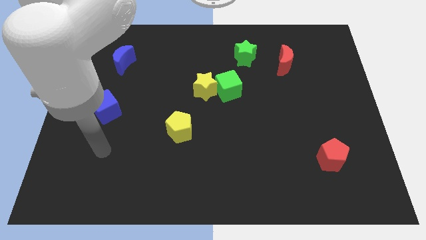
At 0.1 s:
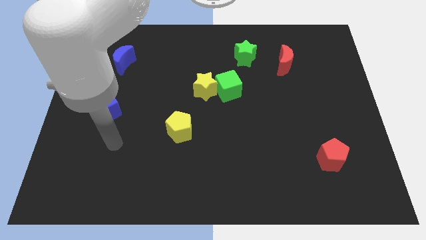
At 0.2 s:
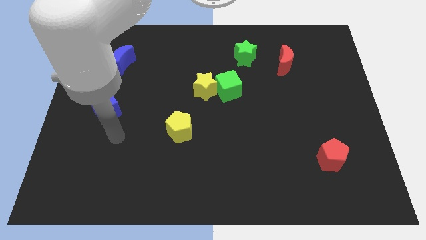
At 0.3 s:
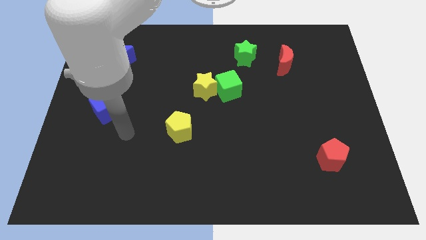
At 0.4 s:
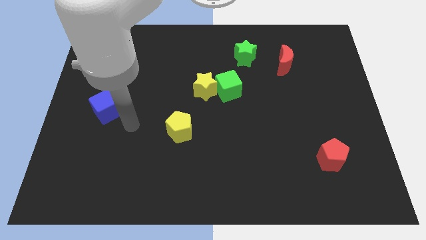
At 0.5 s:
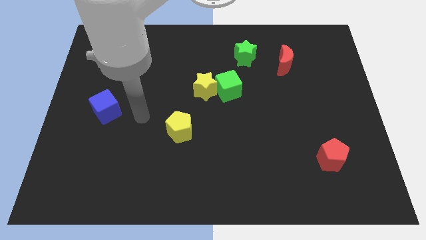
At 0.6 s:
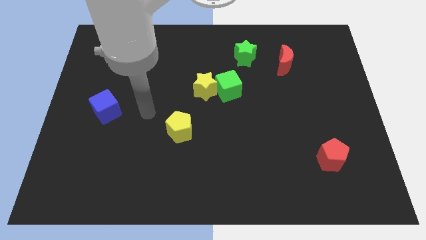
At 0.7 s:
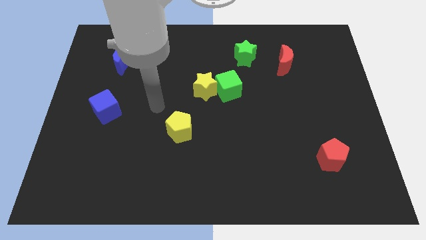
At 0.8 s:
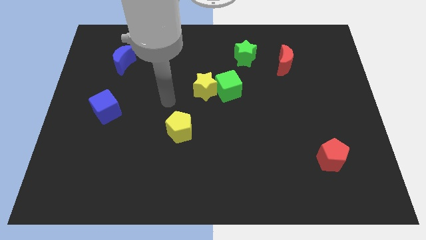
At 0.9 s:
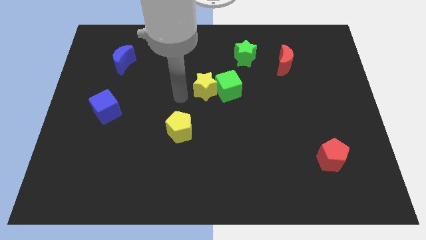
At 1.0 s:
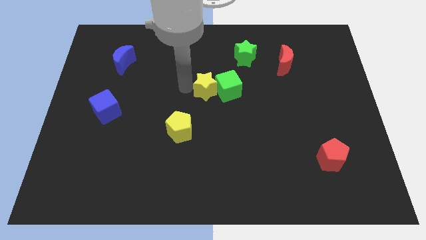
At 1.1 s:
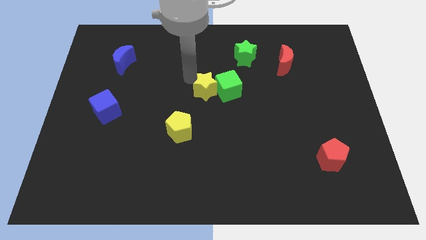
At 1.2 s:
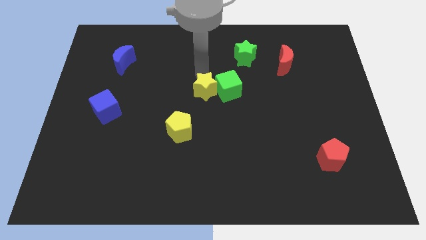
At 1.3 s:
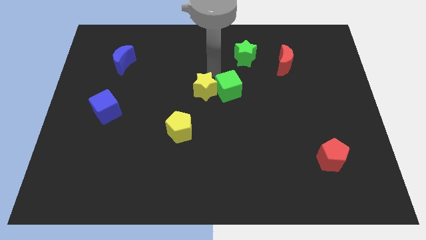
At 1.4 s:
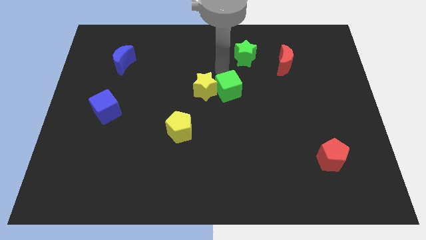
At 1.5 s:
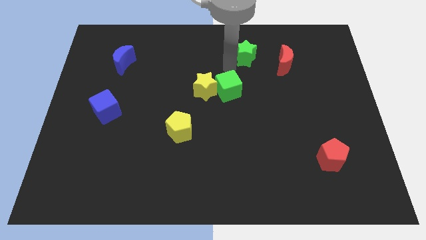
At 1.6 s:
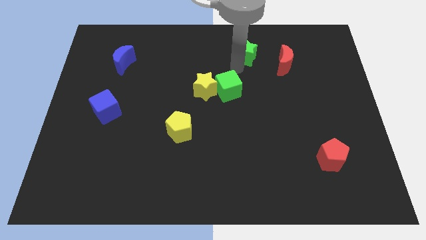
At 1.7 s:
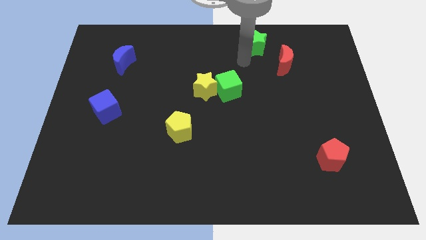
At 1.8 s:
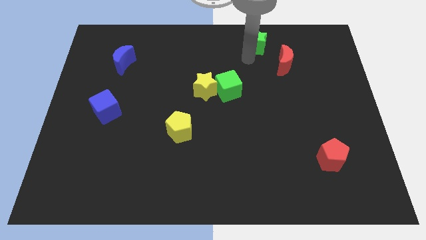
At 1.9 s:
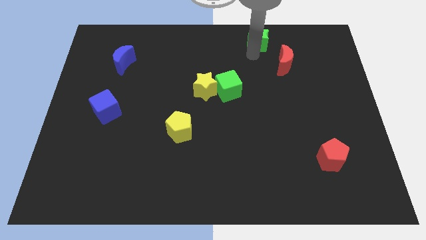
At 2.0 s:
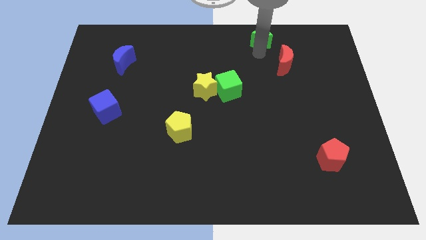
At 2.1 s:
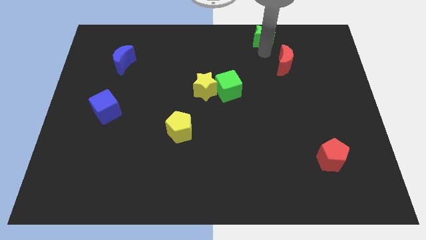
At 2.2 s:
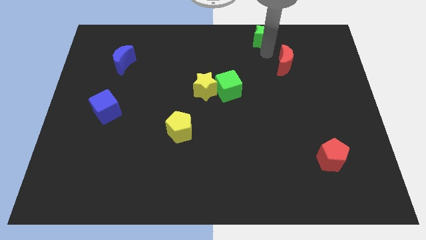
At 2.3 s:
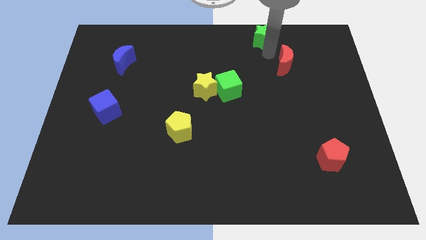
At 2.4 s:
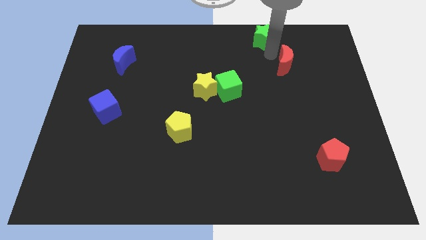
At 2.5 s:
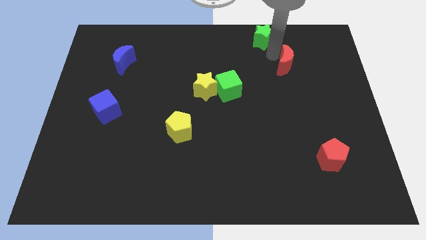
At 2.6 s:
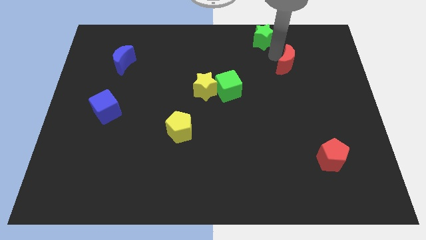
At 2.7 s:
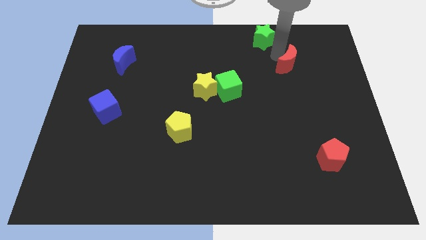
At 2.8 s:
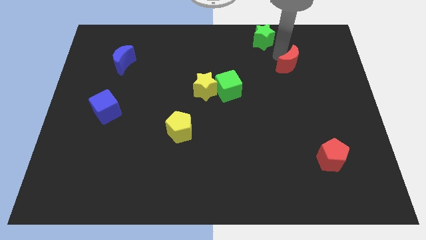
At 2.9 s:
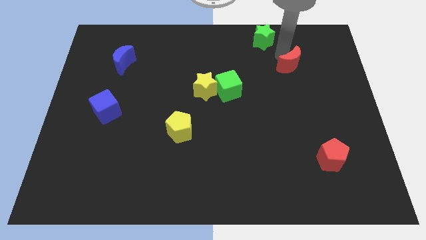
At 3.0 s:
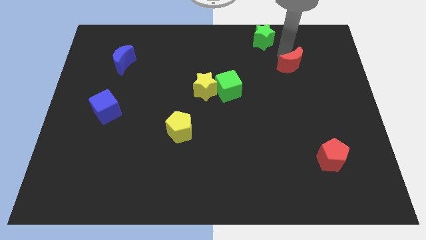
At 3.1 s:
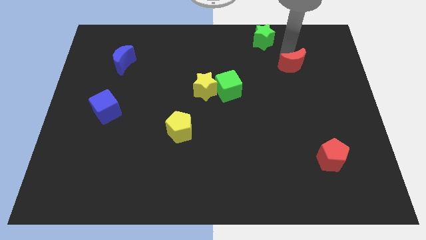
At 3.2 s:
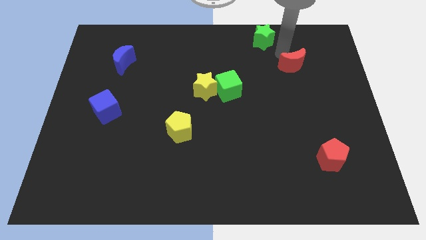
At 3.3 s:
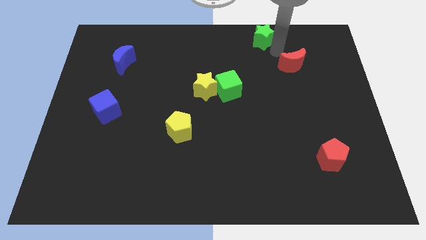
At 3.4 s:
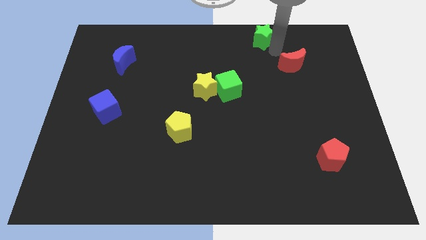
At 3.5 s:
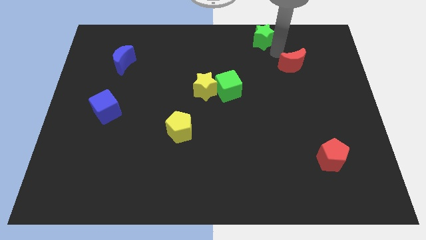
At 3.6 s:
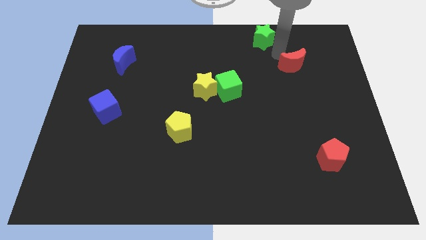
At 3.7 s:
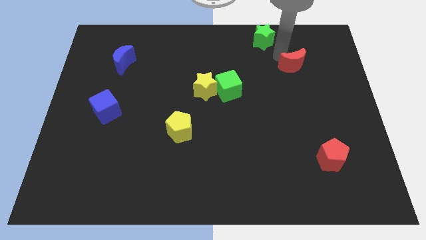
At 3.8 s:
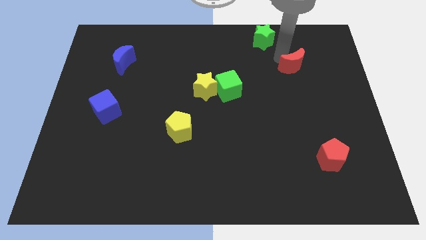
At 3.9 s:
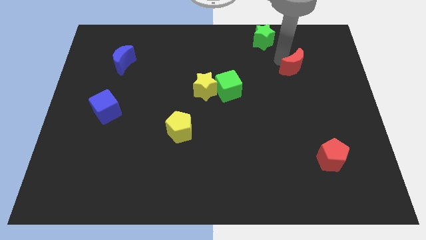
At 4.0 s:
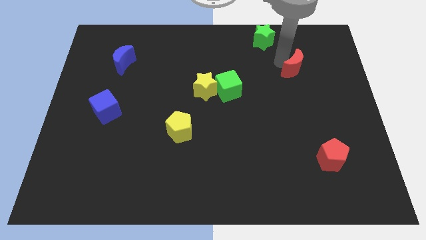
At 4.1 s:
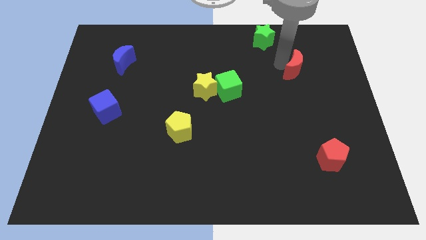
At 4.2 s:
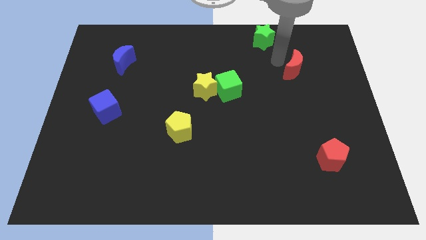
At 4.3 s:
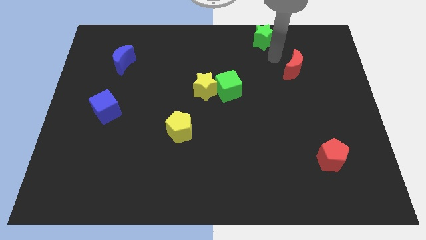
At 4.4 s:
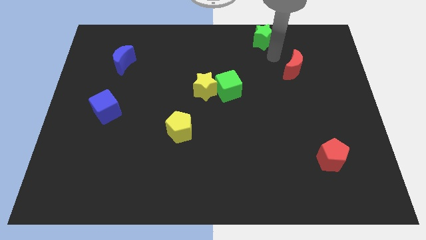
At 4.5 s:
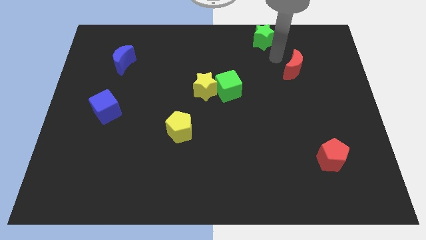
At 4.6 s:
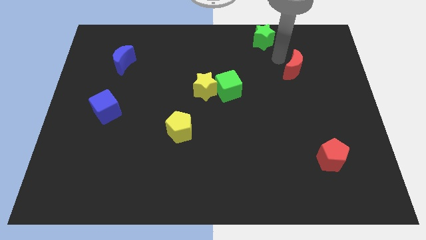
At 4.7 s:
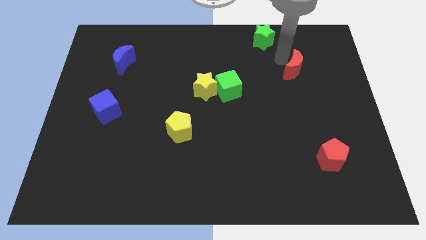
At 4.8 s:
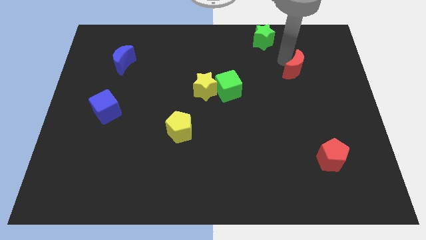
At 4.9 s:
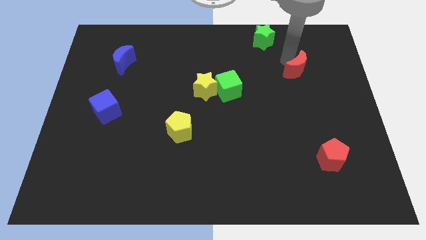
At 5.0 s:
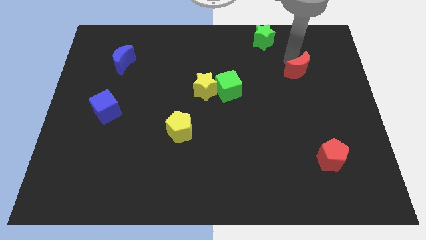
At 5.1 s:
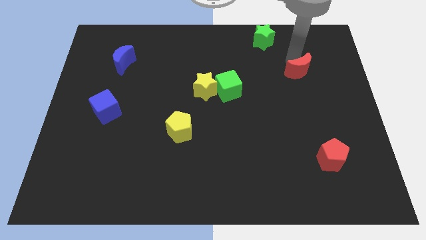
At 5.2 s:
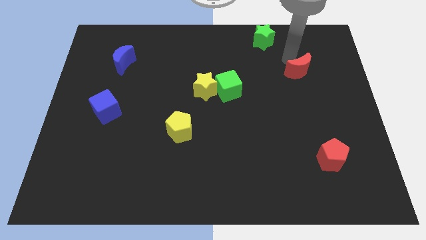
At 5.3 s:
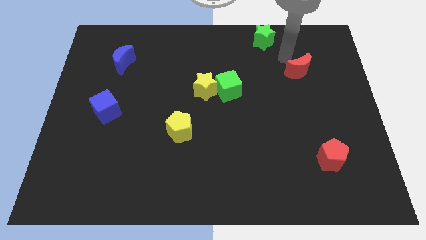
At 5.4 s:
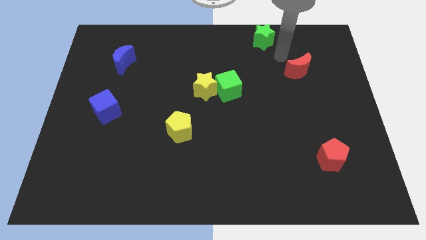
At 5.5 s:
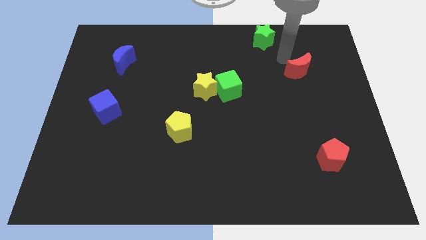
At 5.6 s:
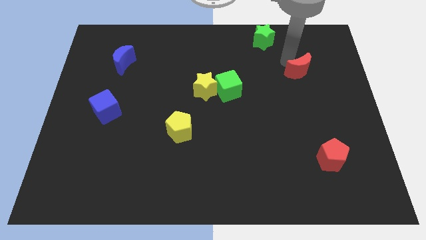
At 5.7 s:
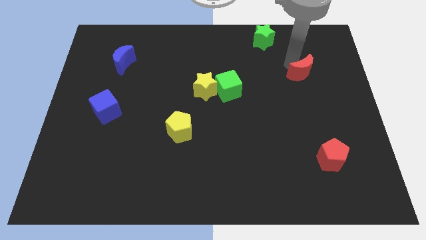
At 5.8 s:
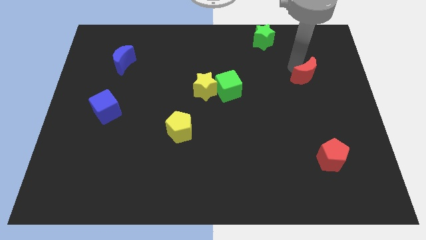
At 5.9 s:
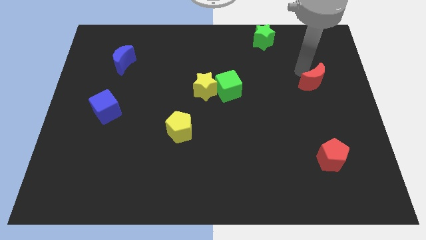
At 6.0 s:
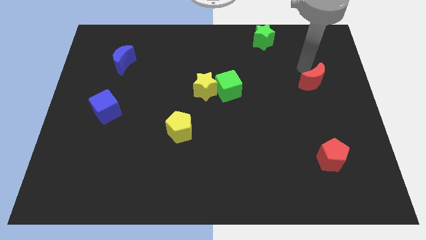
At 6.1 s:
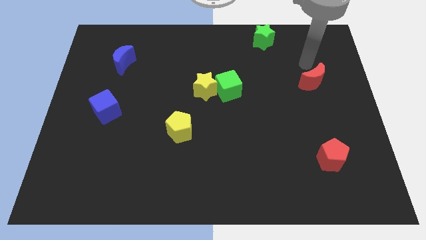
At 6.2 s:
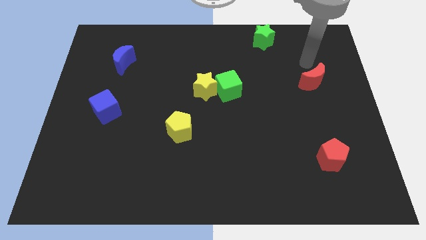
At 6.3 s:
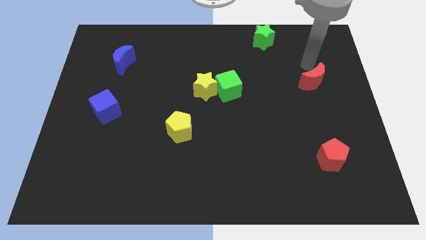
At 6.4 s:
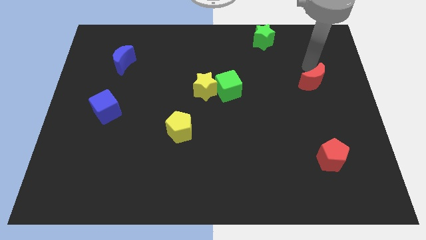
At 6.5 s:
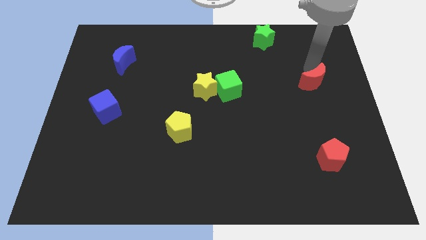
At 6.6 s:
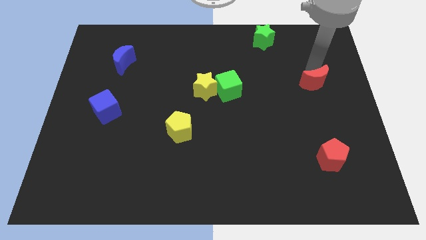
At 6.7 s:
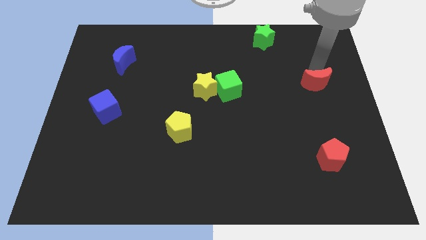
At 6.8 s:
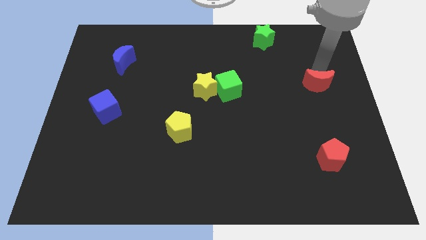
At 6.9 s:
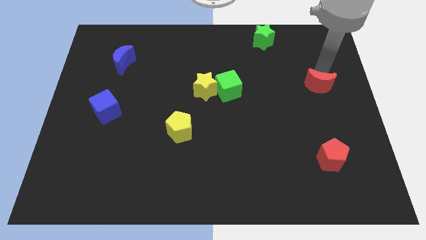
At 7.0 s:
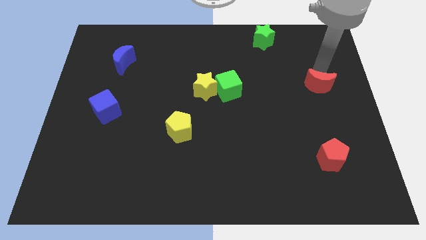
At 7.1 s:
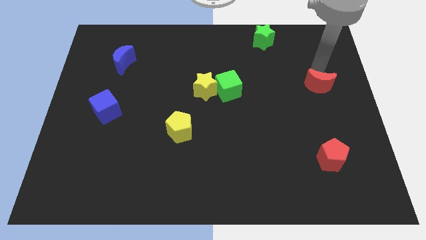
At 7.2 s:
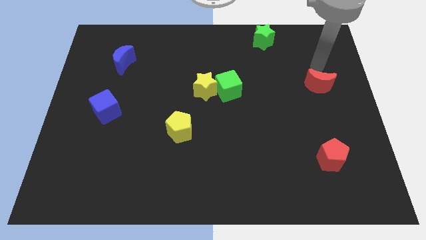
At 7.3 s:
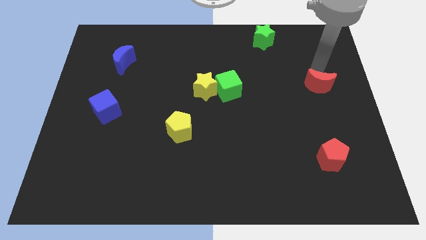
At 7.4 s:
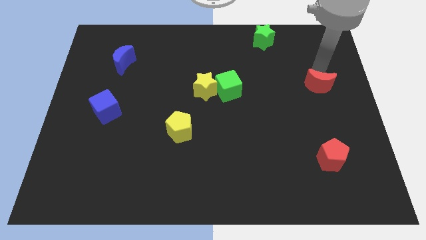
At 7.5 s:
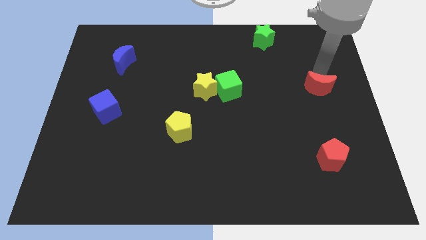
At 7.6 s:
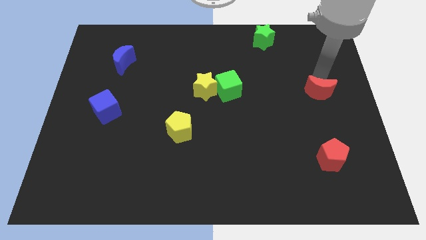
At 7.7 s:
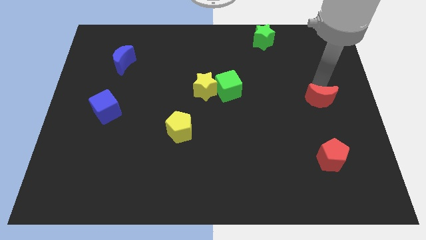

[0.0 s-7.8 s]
slide the red moon to the top side of the red pentagon
